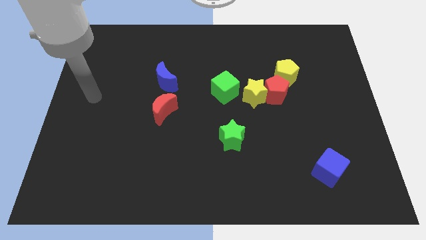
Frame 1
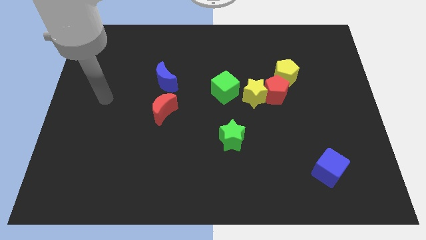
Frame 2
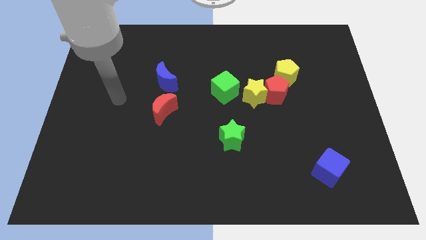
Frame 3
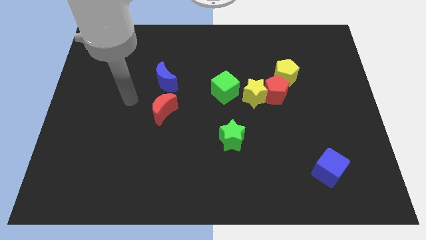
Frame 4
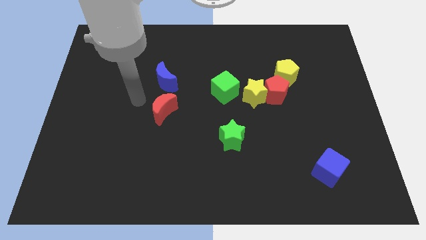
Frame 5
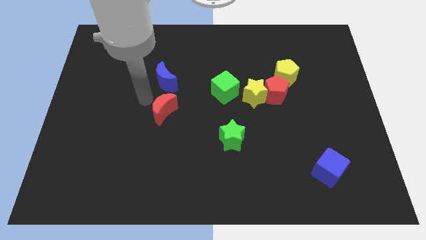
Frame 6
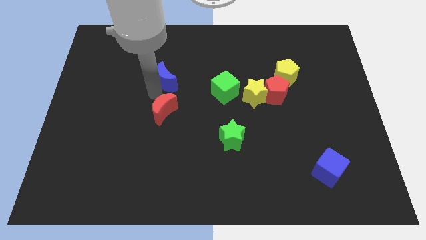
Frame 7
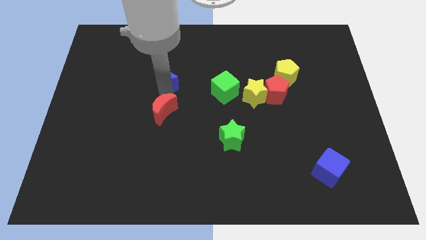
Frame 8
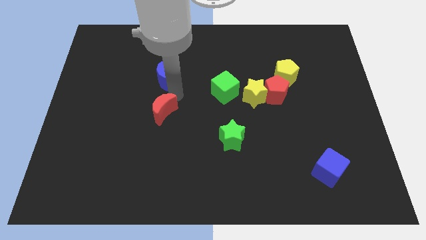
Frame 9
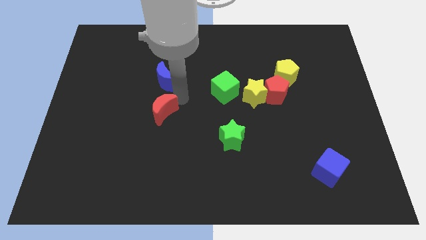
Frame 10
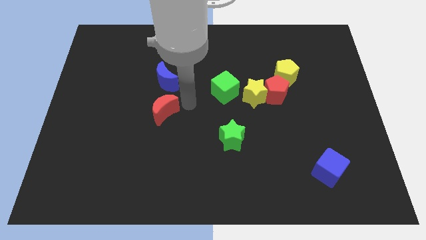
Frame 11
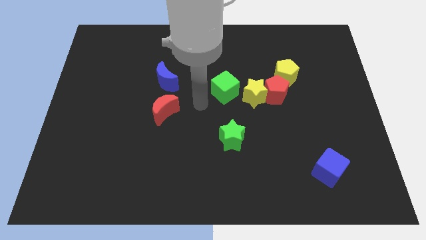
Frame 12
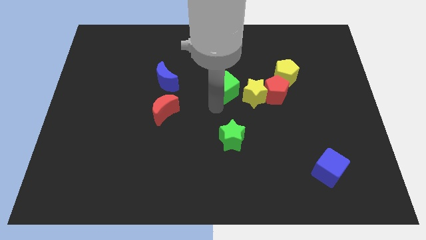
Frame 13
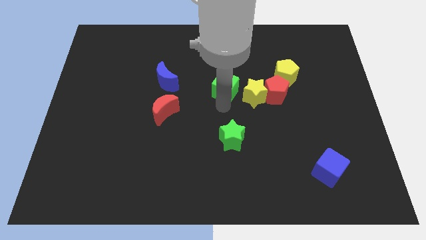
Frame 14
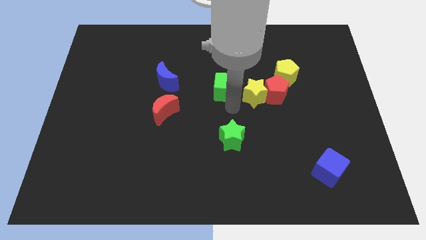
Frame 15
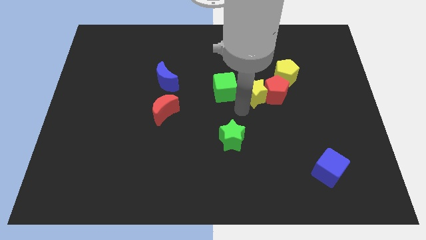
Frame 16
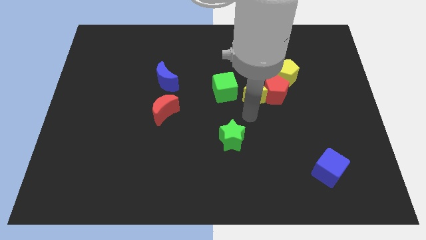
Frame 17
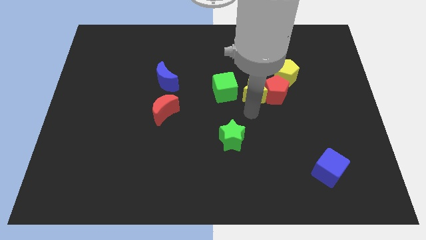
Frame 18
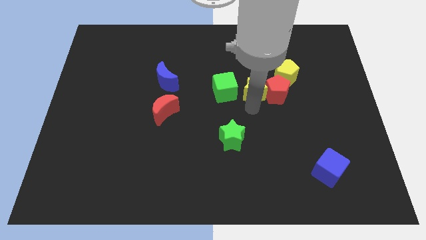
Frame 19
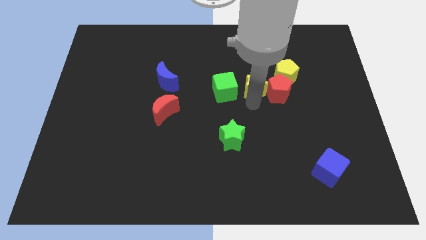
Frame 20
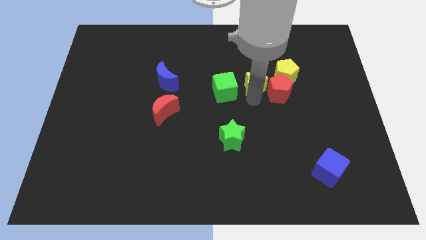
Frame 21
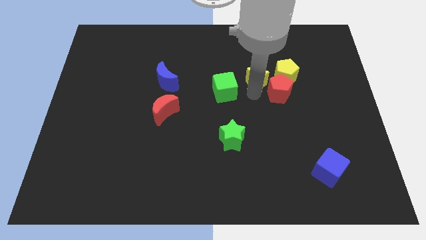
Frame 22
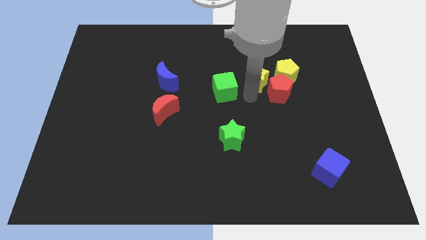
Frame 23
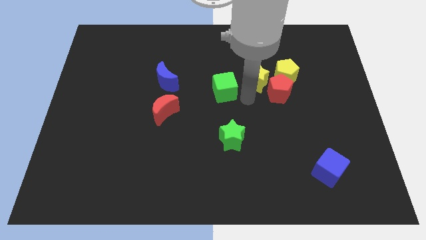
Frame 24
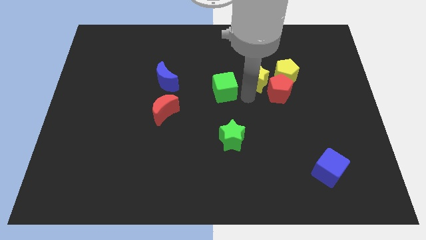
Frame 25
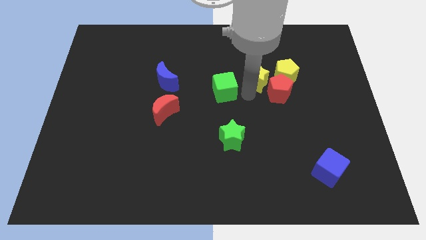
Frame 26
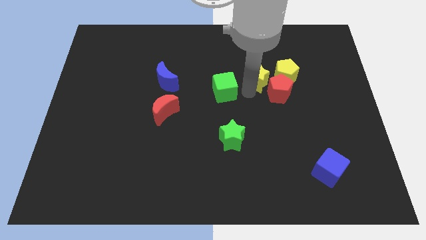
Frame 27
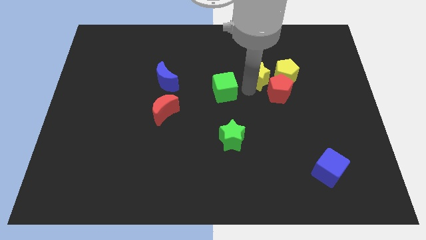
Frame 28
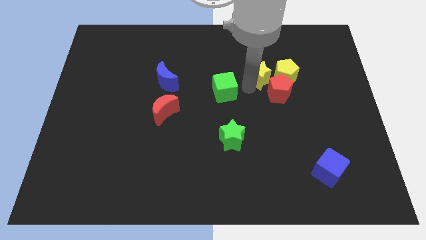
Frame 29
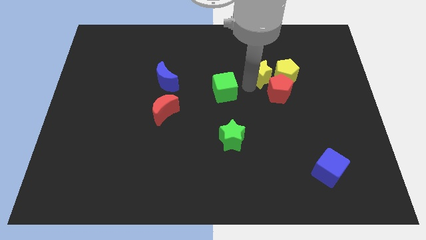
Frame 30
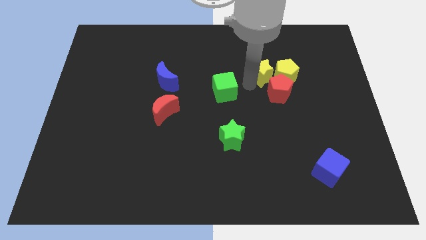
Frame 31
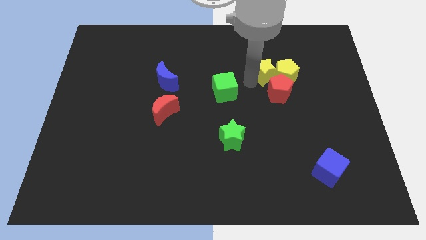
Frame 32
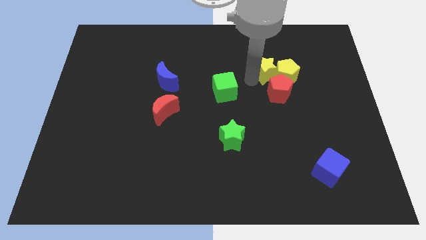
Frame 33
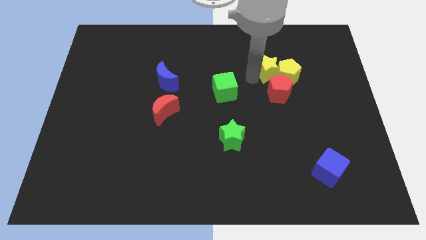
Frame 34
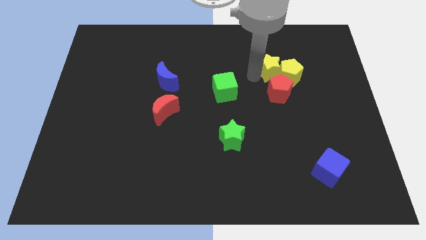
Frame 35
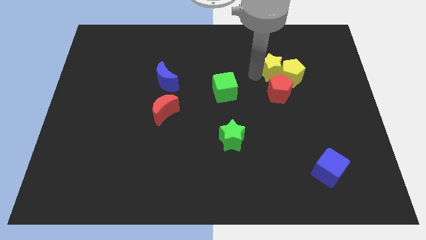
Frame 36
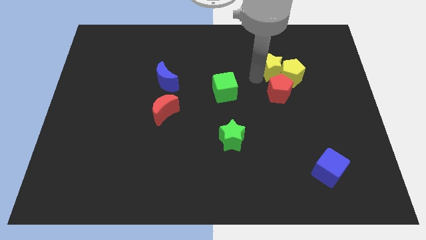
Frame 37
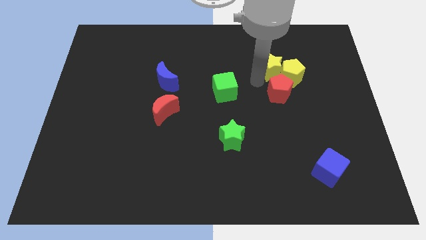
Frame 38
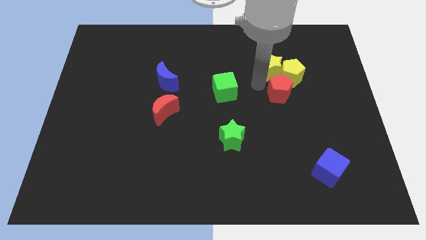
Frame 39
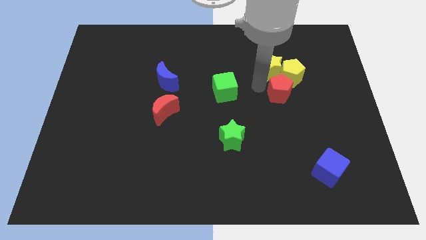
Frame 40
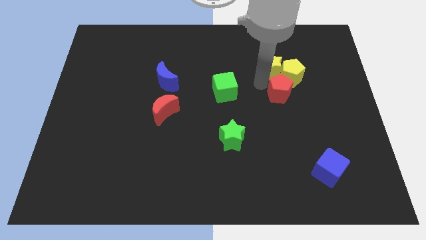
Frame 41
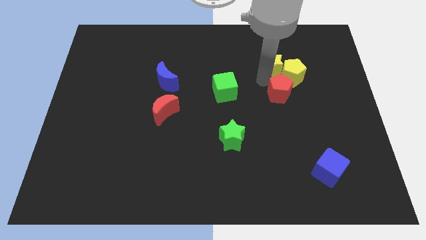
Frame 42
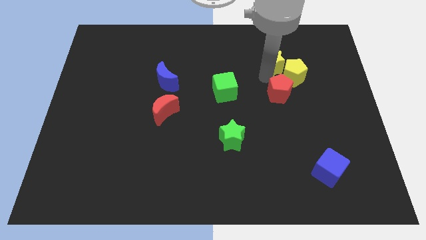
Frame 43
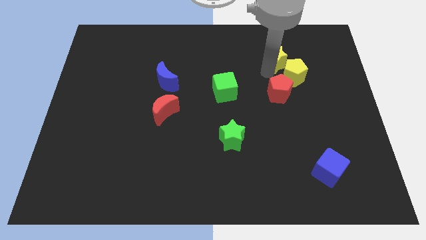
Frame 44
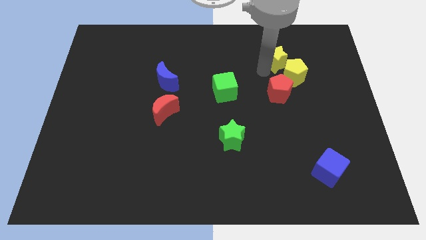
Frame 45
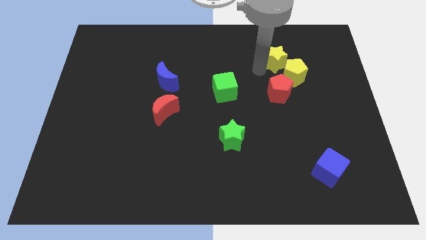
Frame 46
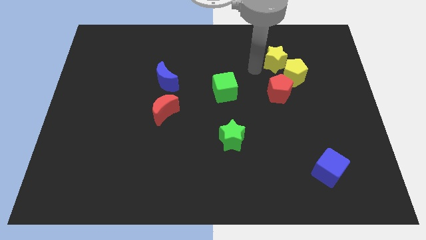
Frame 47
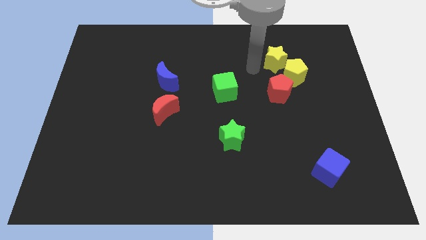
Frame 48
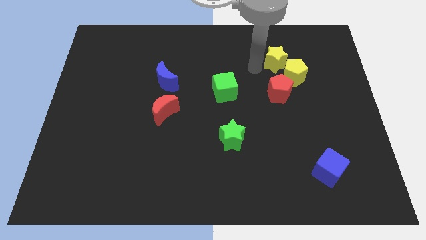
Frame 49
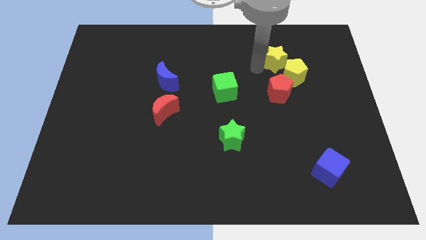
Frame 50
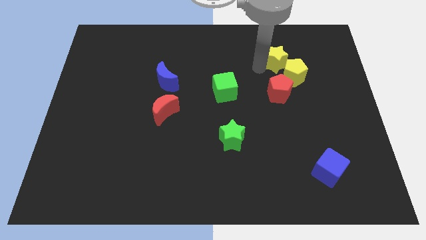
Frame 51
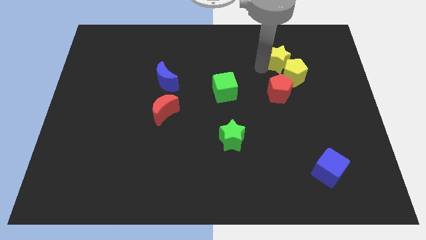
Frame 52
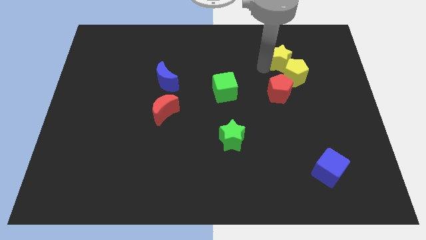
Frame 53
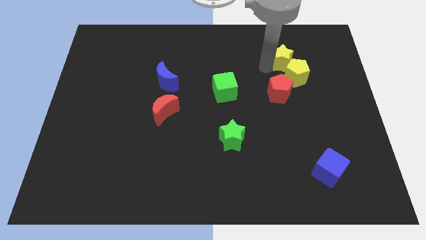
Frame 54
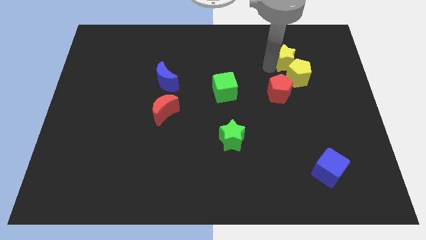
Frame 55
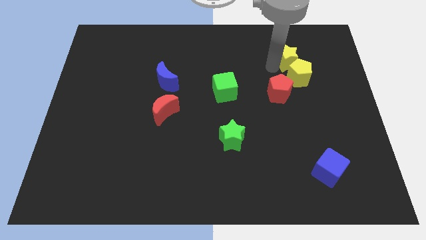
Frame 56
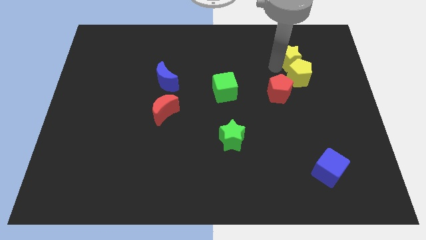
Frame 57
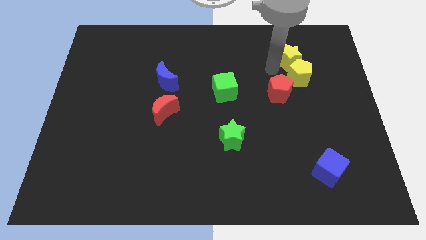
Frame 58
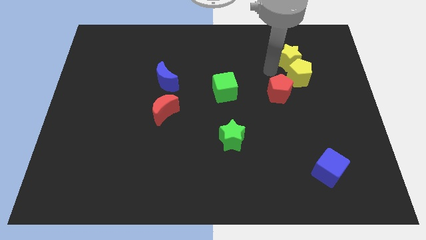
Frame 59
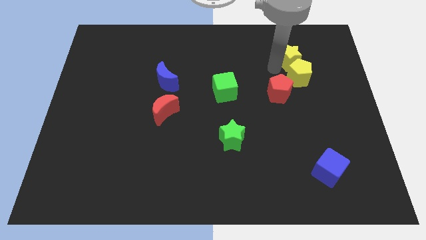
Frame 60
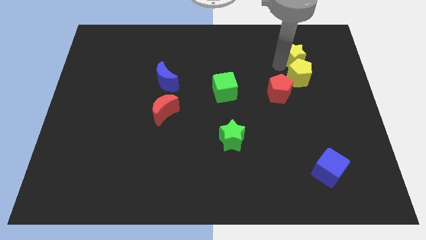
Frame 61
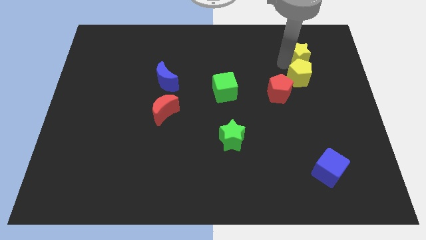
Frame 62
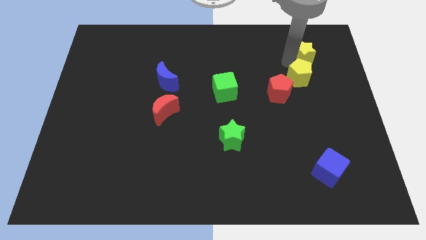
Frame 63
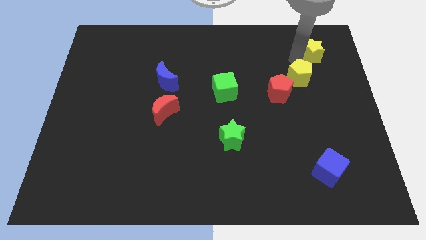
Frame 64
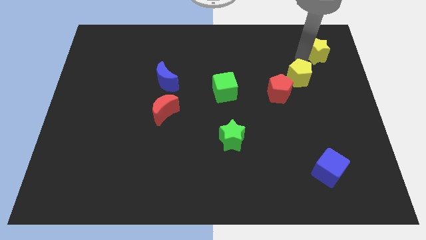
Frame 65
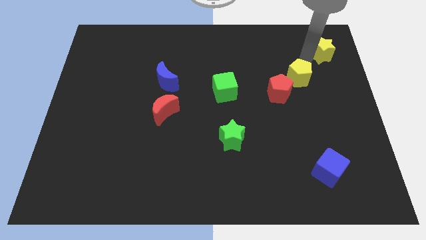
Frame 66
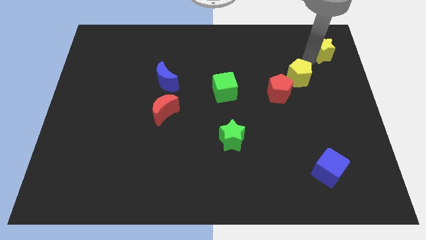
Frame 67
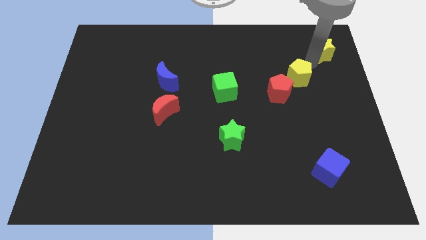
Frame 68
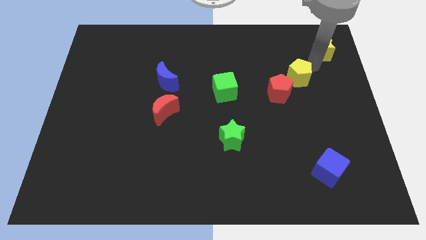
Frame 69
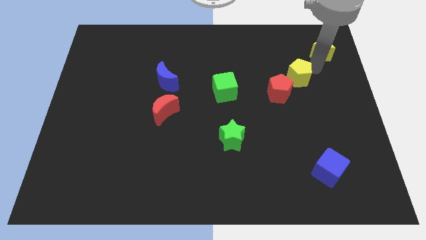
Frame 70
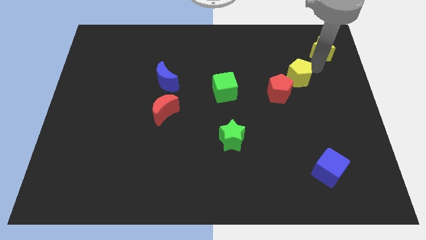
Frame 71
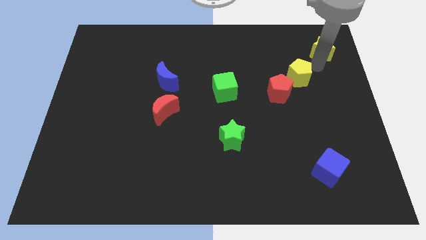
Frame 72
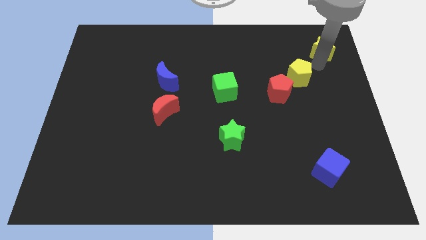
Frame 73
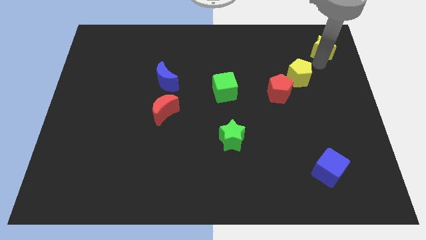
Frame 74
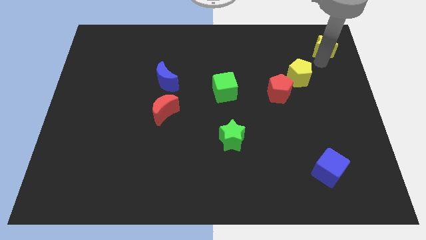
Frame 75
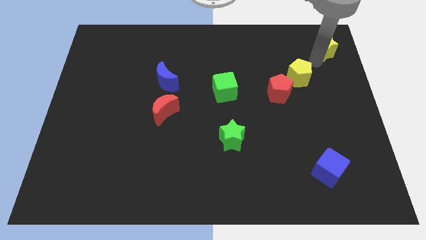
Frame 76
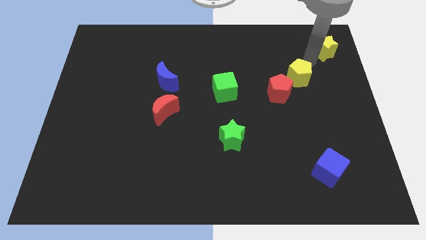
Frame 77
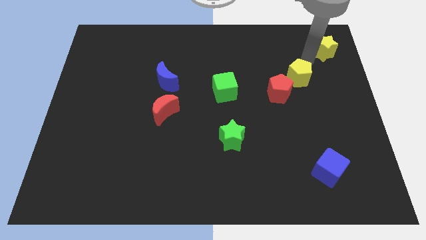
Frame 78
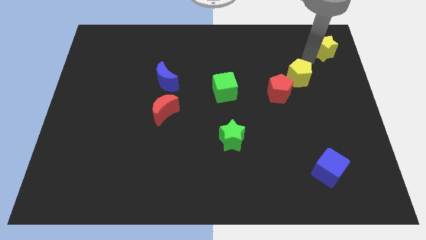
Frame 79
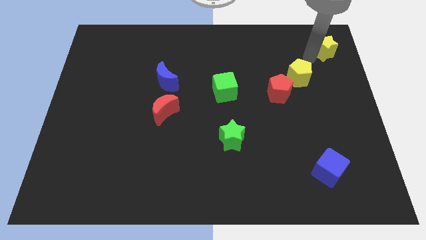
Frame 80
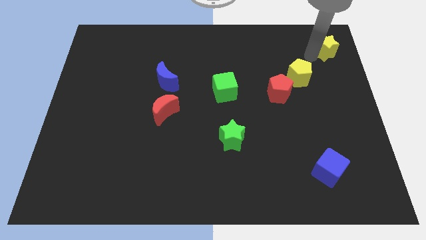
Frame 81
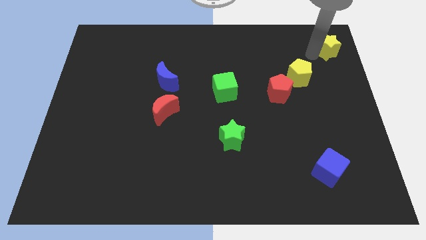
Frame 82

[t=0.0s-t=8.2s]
slide the yellow star to the upper right corner
